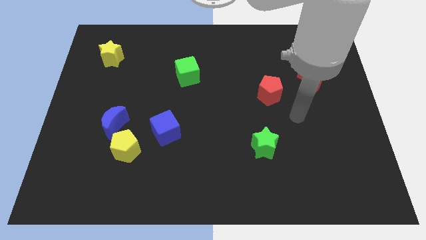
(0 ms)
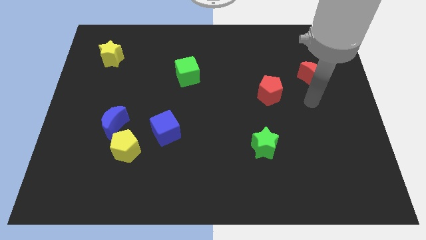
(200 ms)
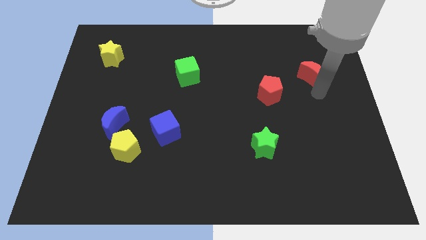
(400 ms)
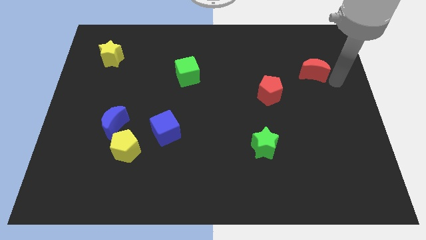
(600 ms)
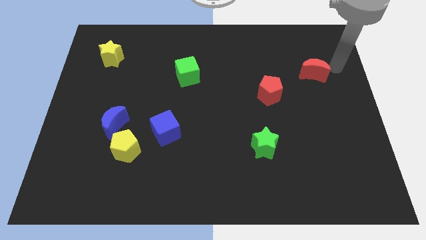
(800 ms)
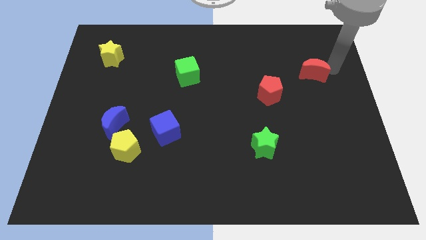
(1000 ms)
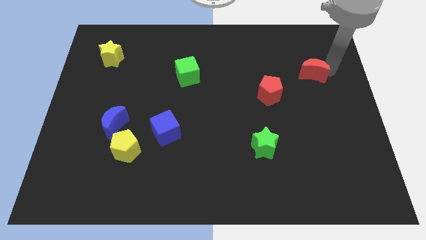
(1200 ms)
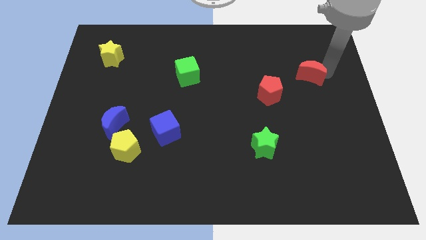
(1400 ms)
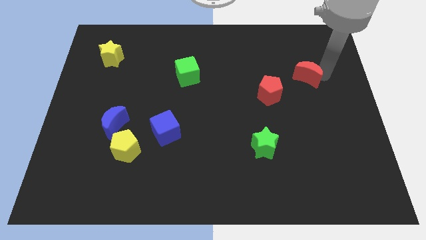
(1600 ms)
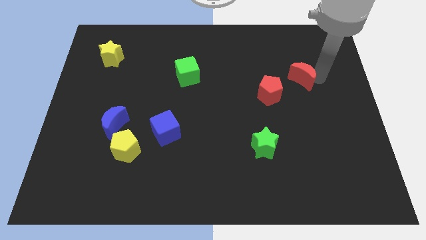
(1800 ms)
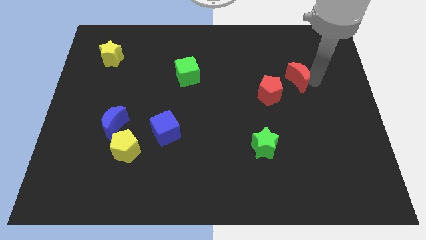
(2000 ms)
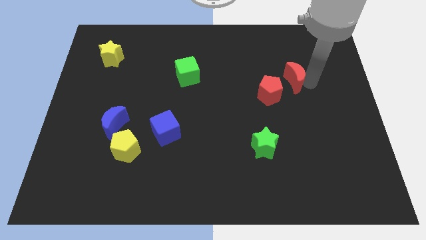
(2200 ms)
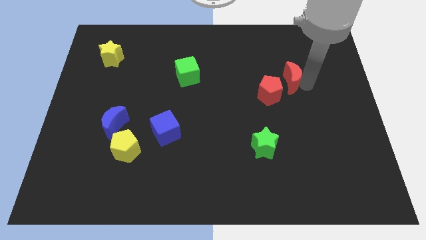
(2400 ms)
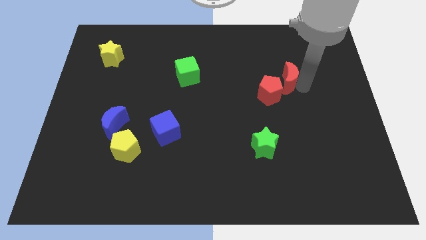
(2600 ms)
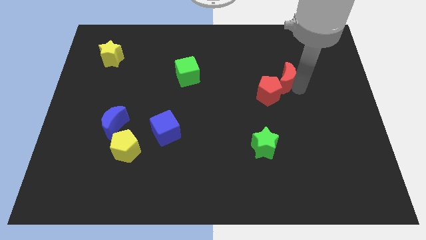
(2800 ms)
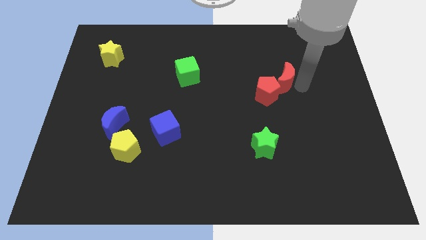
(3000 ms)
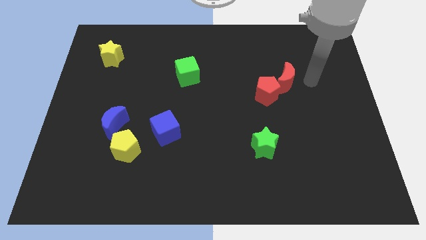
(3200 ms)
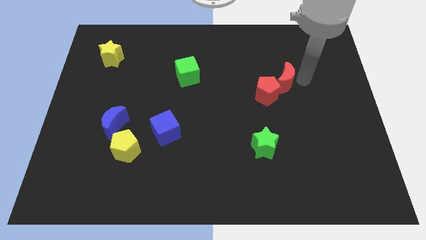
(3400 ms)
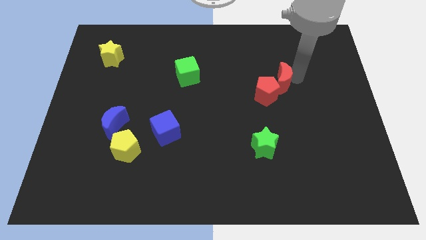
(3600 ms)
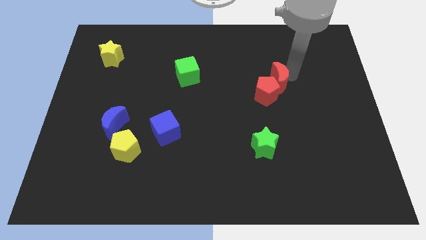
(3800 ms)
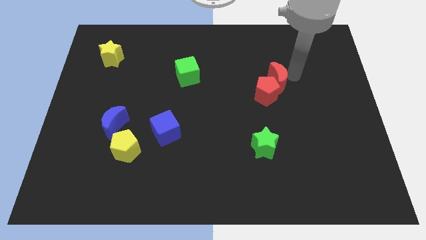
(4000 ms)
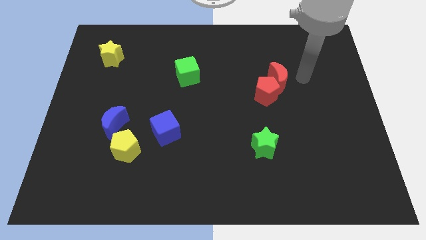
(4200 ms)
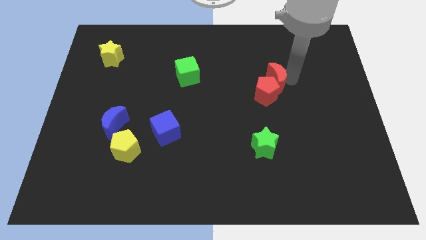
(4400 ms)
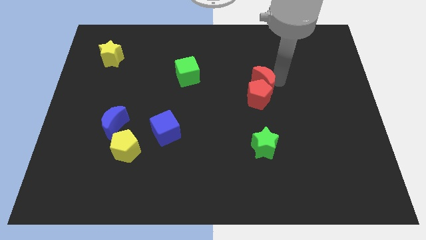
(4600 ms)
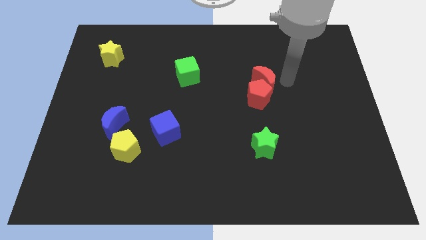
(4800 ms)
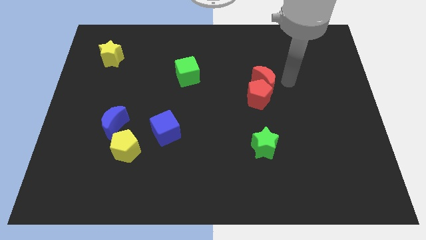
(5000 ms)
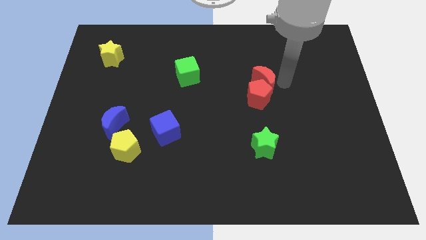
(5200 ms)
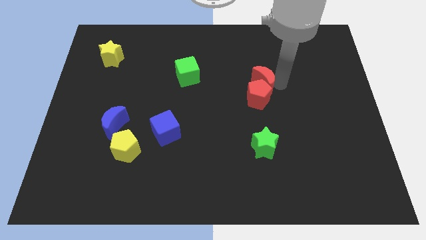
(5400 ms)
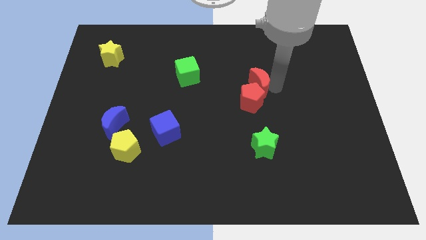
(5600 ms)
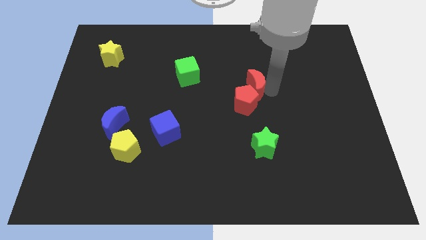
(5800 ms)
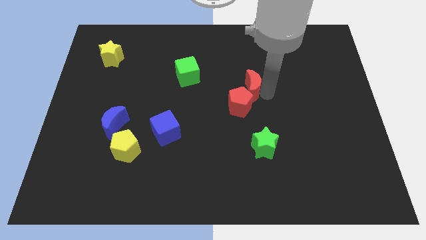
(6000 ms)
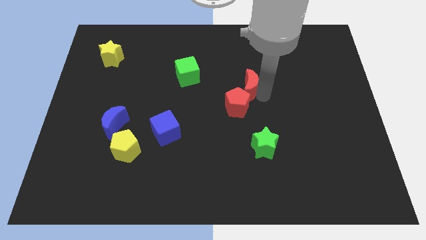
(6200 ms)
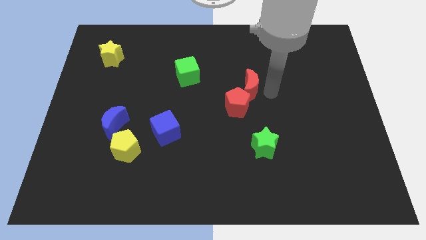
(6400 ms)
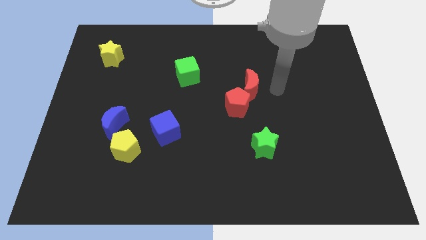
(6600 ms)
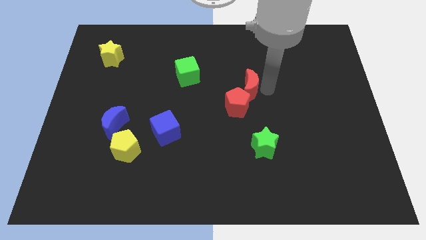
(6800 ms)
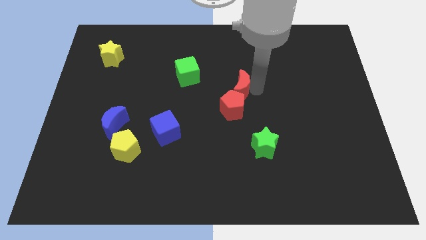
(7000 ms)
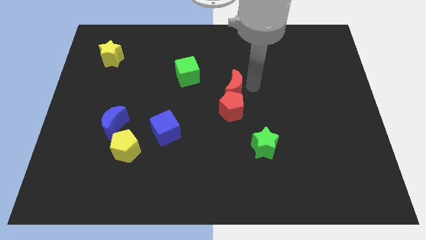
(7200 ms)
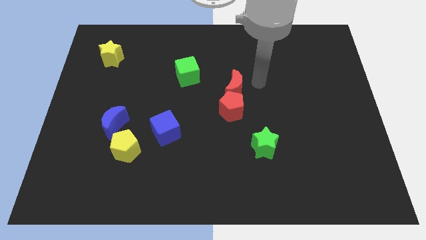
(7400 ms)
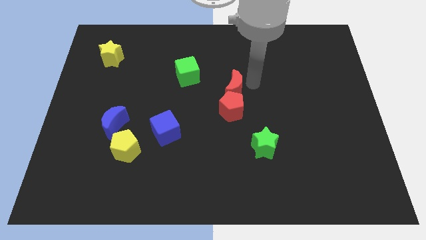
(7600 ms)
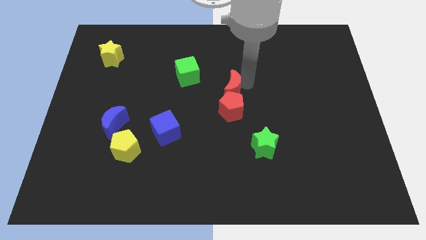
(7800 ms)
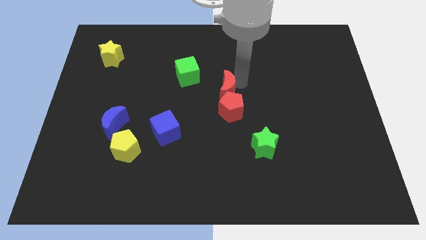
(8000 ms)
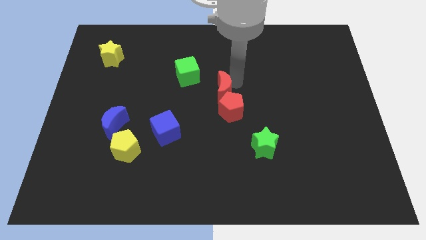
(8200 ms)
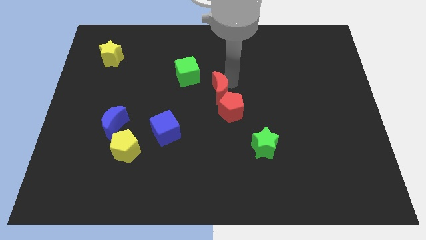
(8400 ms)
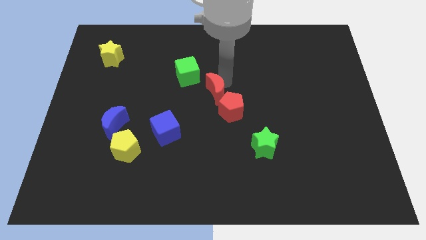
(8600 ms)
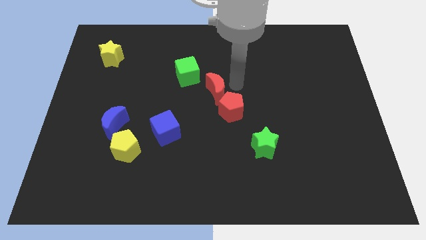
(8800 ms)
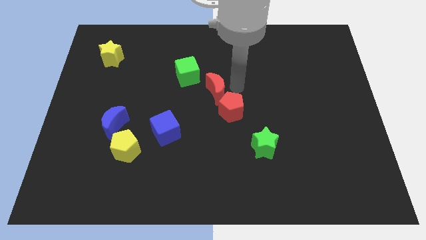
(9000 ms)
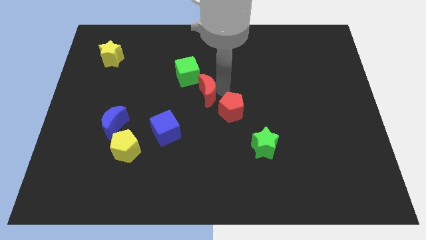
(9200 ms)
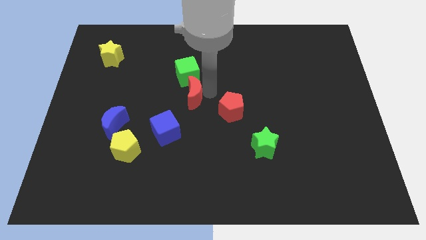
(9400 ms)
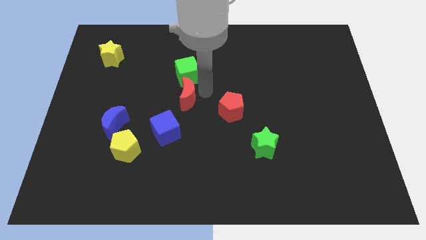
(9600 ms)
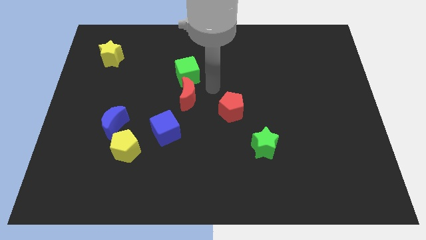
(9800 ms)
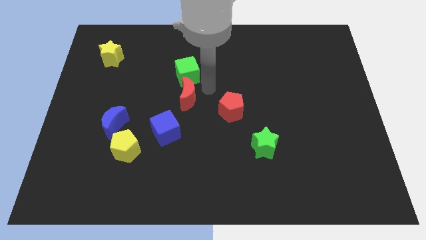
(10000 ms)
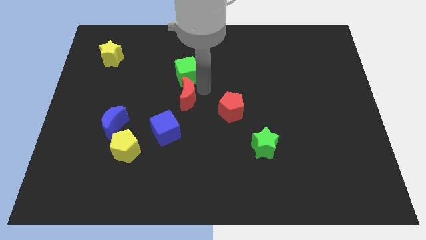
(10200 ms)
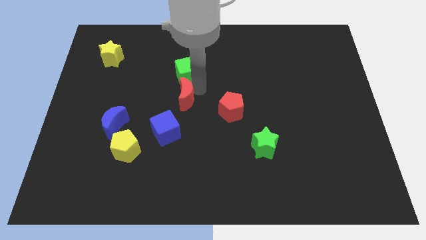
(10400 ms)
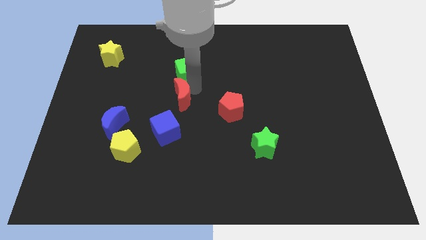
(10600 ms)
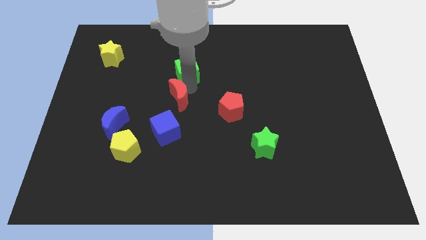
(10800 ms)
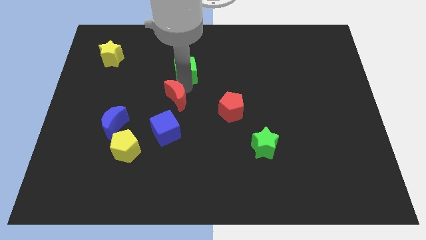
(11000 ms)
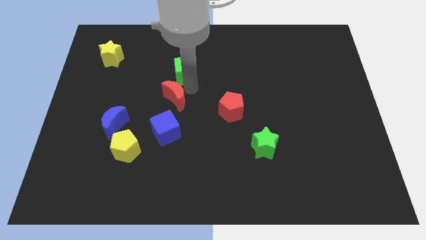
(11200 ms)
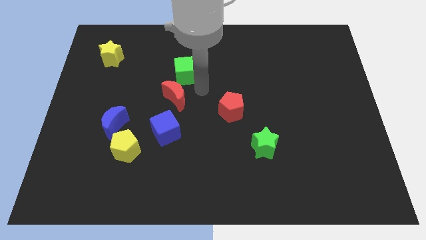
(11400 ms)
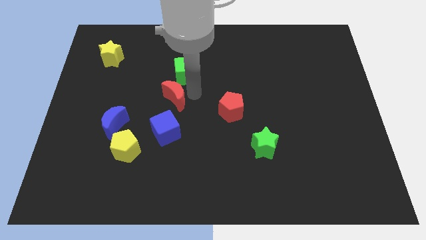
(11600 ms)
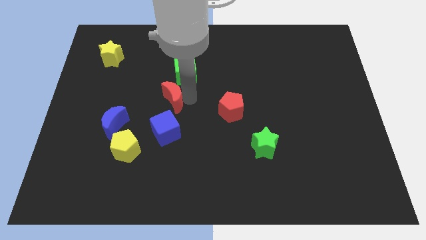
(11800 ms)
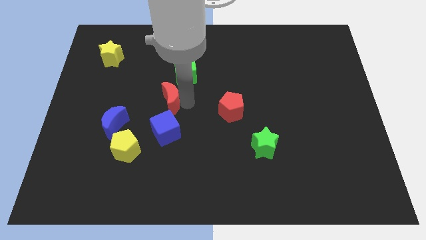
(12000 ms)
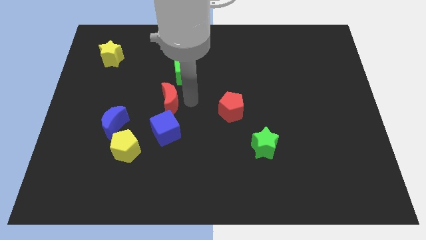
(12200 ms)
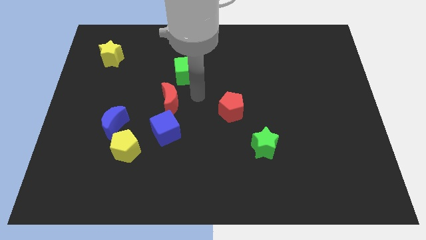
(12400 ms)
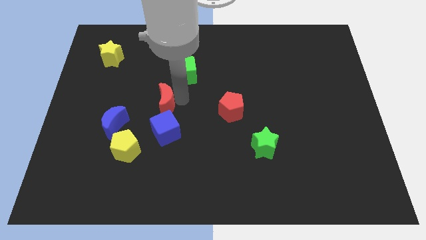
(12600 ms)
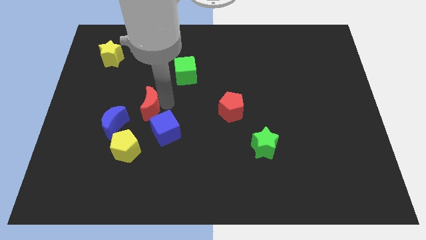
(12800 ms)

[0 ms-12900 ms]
push the red moon above the yellow pentagon

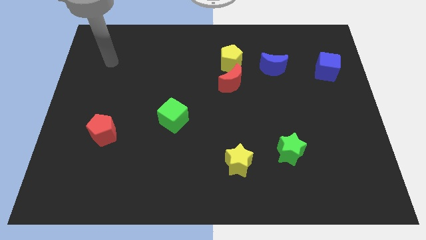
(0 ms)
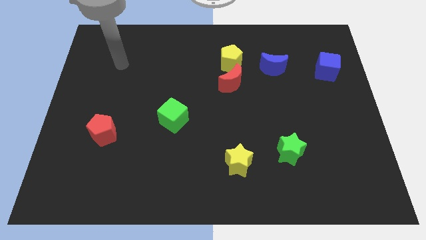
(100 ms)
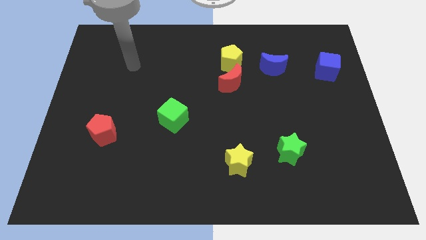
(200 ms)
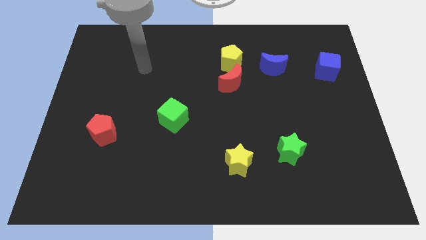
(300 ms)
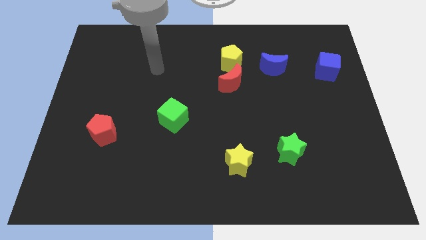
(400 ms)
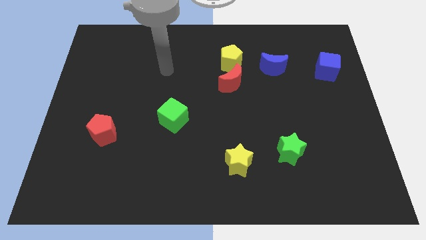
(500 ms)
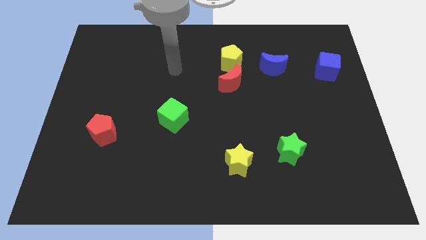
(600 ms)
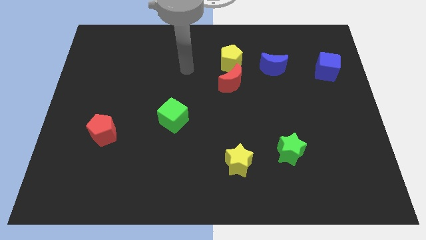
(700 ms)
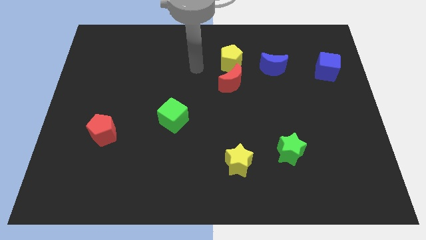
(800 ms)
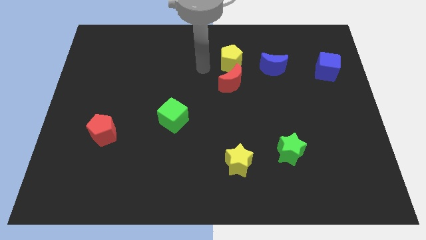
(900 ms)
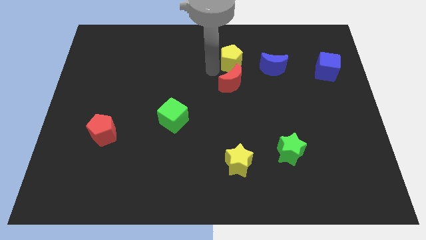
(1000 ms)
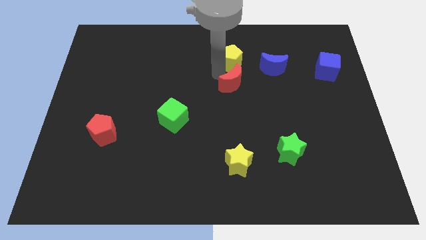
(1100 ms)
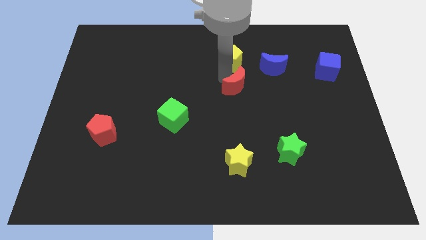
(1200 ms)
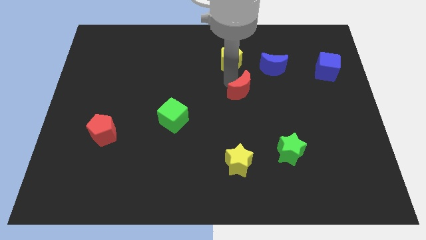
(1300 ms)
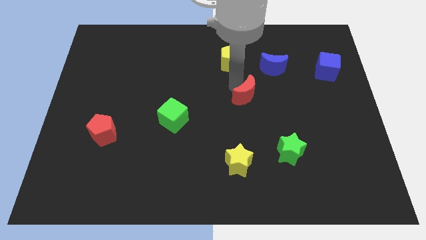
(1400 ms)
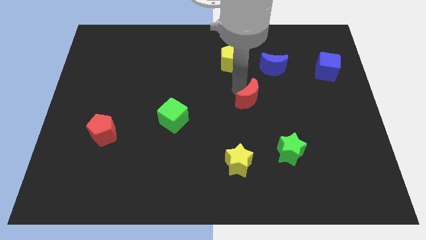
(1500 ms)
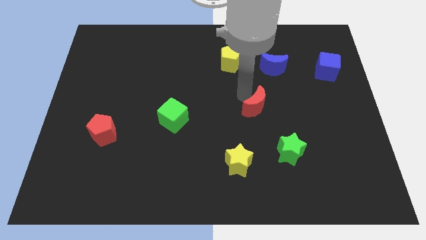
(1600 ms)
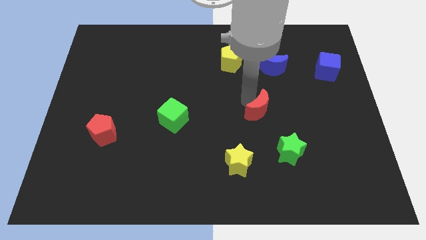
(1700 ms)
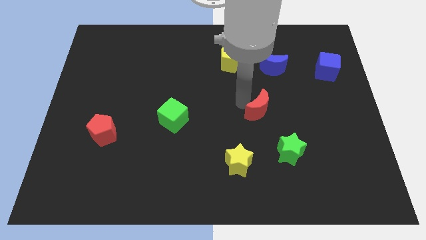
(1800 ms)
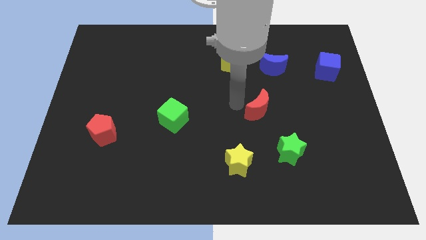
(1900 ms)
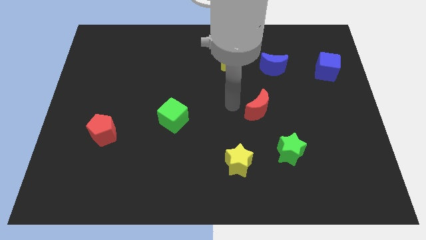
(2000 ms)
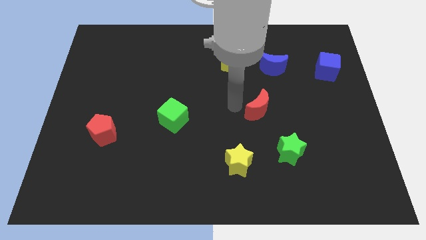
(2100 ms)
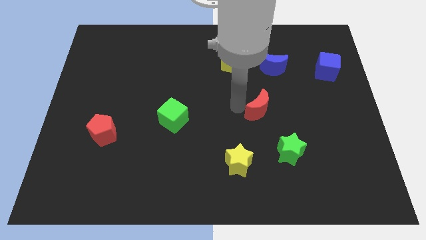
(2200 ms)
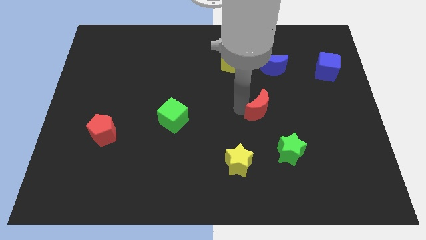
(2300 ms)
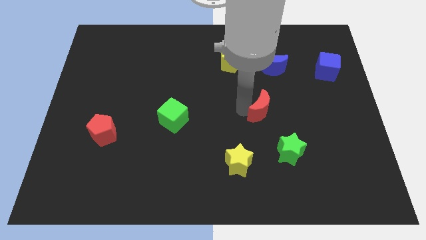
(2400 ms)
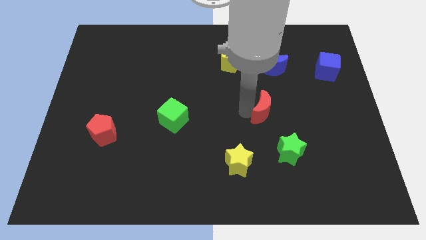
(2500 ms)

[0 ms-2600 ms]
put the red moon to the top side of the green star
